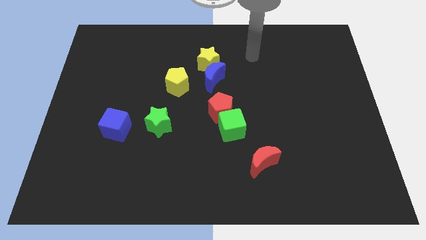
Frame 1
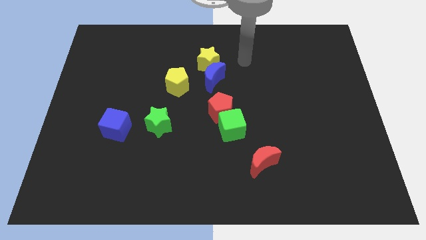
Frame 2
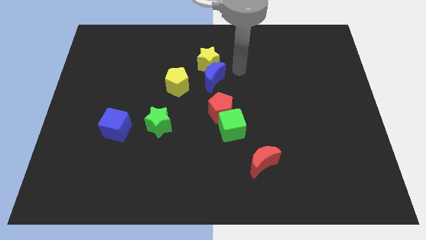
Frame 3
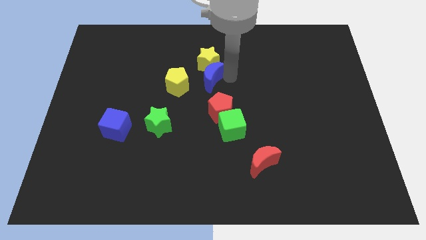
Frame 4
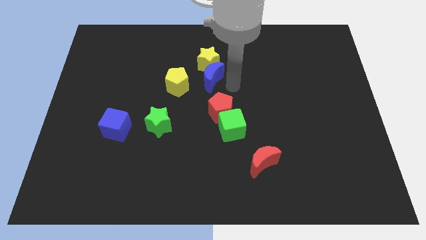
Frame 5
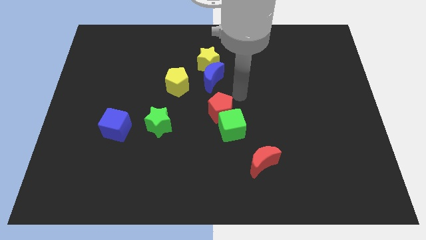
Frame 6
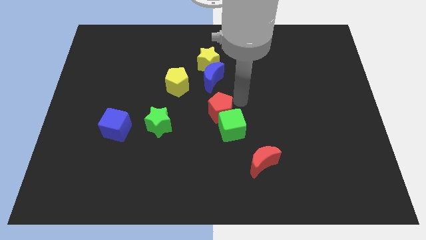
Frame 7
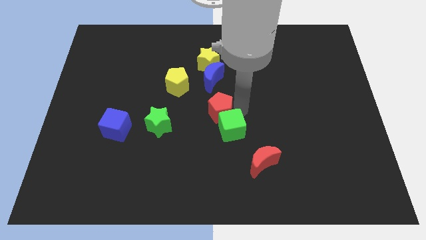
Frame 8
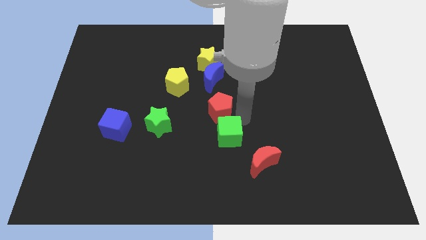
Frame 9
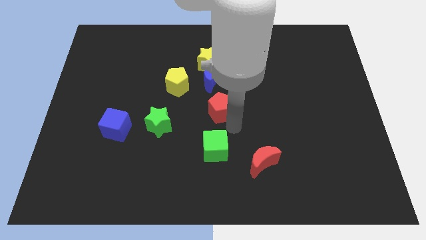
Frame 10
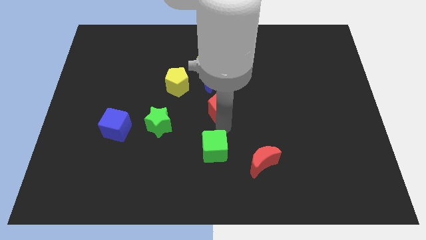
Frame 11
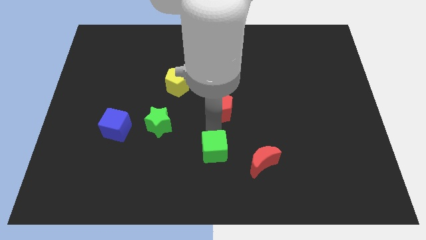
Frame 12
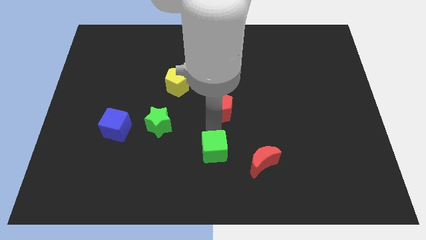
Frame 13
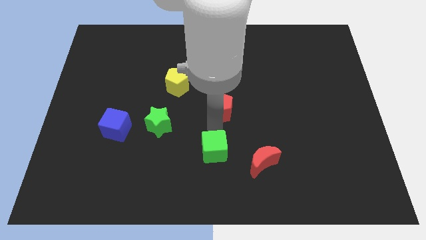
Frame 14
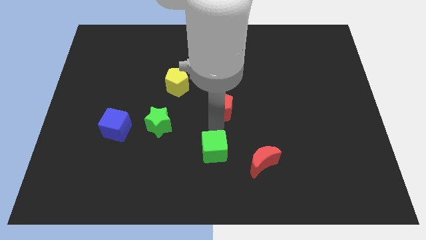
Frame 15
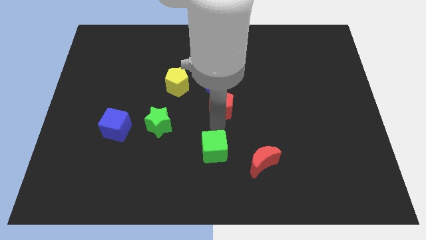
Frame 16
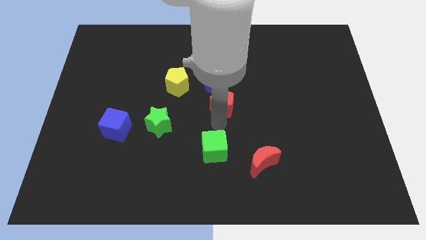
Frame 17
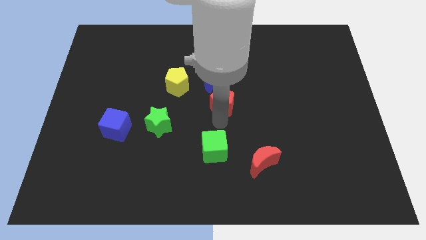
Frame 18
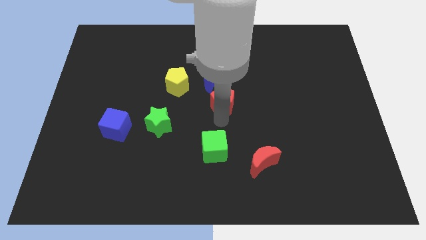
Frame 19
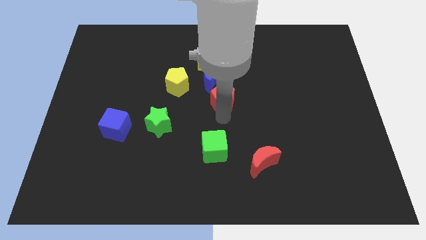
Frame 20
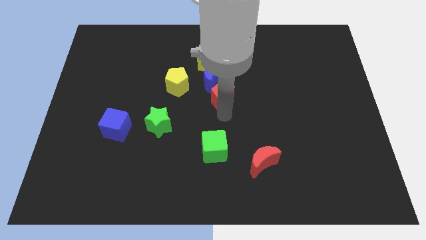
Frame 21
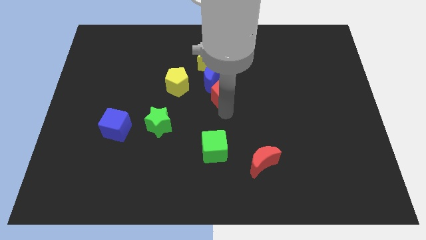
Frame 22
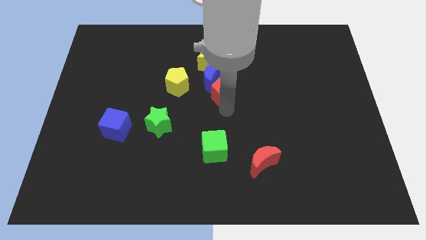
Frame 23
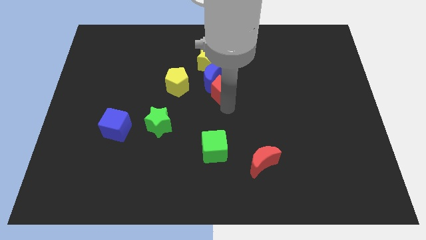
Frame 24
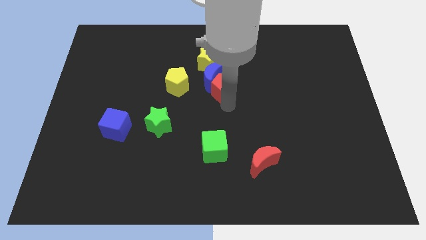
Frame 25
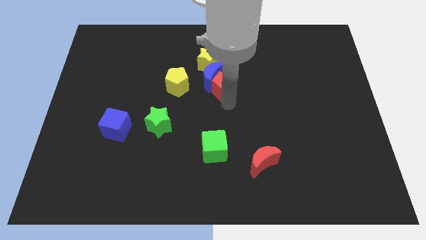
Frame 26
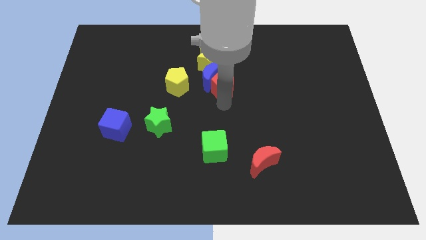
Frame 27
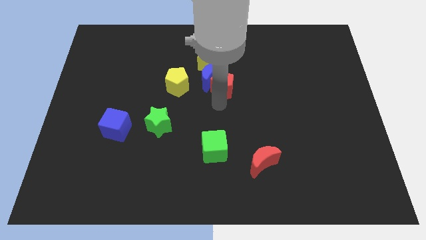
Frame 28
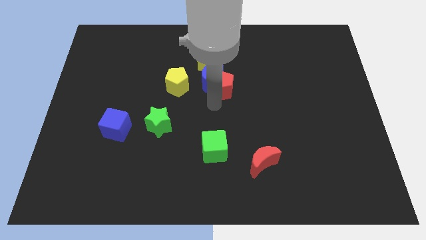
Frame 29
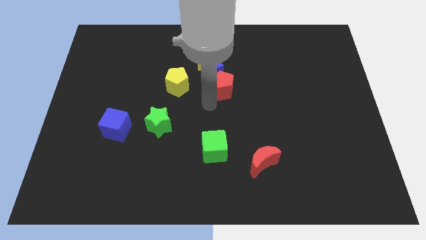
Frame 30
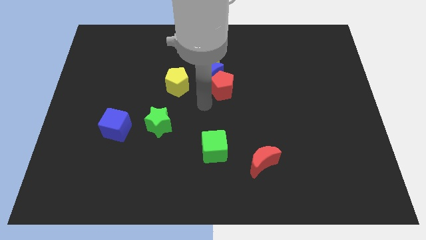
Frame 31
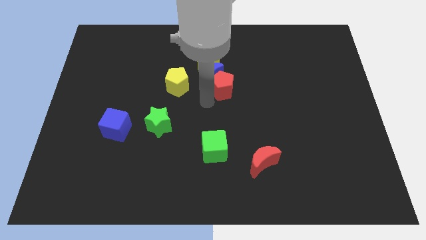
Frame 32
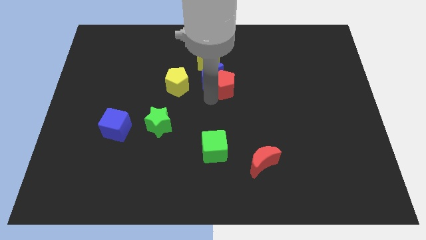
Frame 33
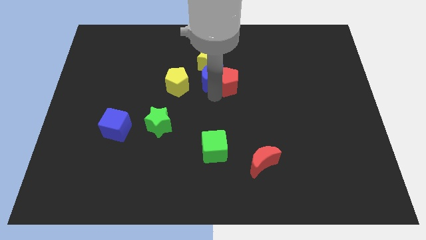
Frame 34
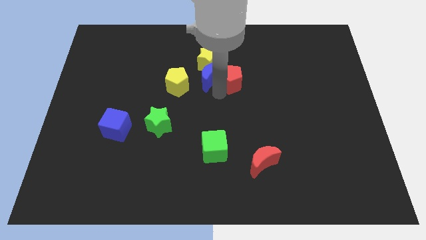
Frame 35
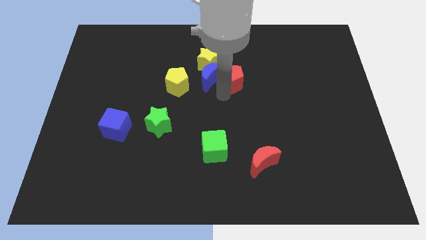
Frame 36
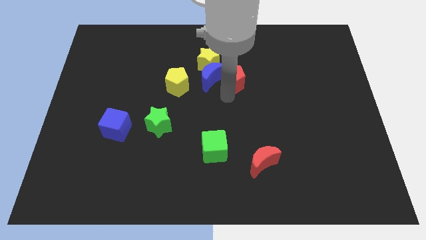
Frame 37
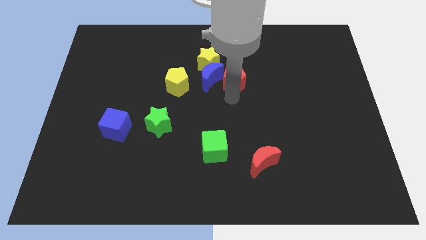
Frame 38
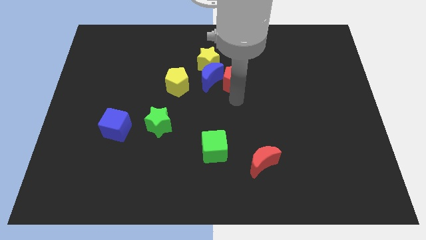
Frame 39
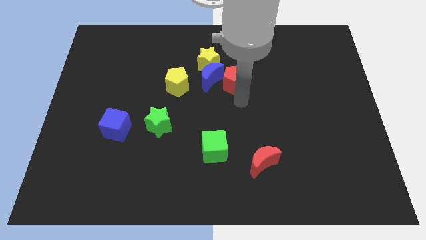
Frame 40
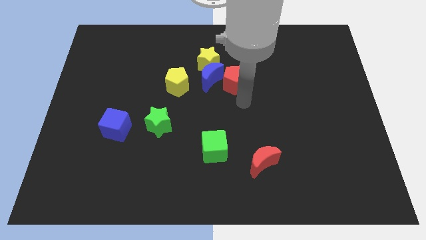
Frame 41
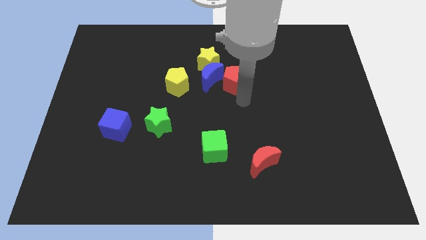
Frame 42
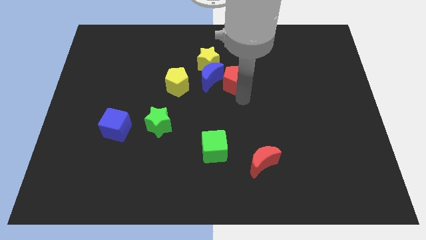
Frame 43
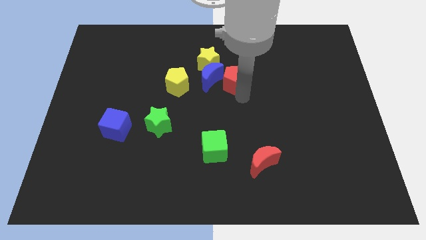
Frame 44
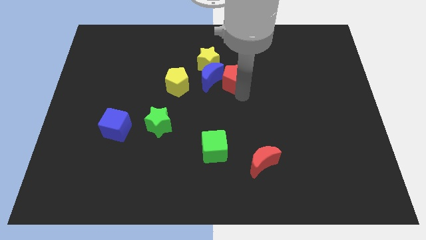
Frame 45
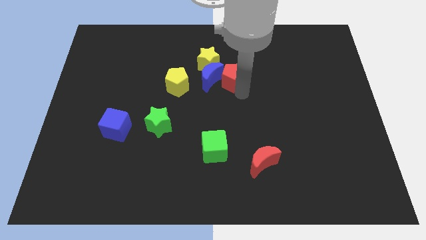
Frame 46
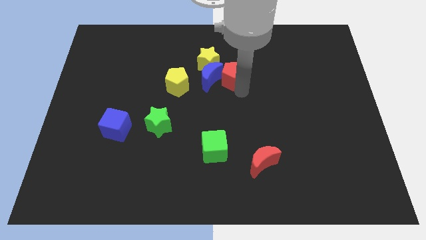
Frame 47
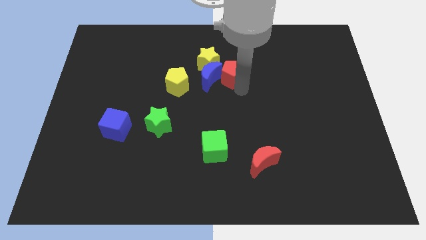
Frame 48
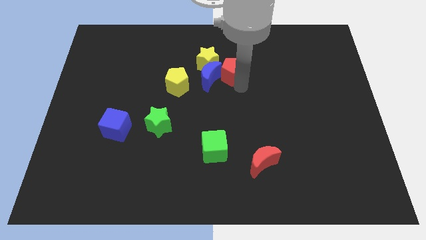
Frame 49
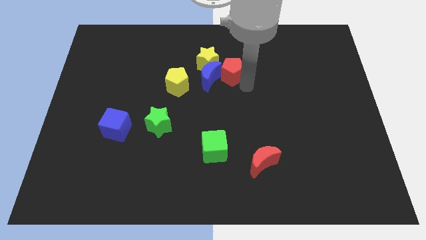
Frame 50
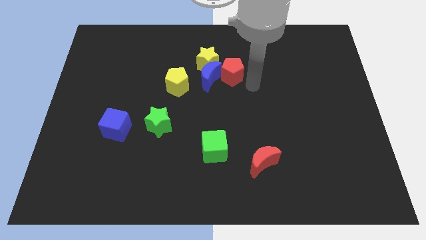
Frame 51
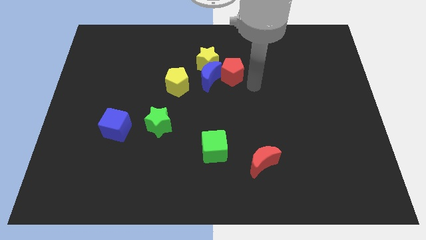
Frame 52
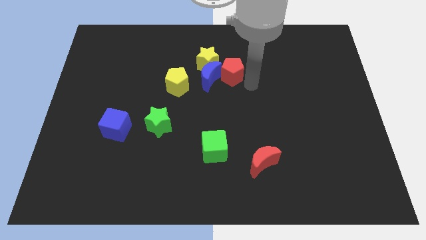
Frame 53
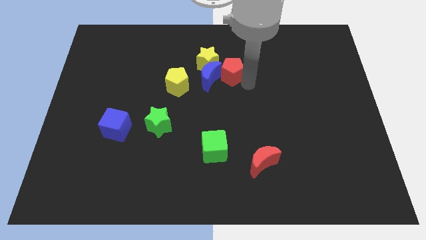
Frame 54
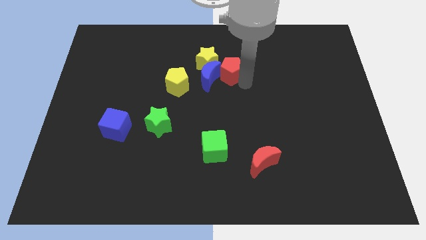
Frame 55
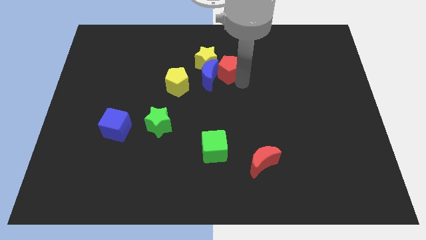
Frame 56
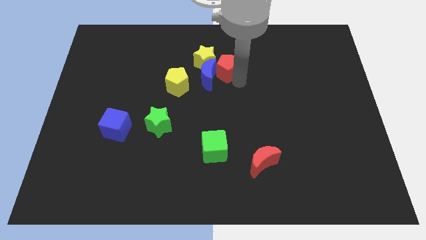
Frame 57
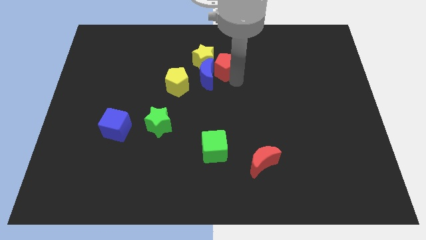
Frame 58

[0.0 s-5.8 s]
put the red pentagon next to the yellow star

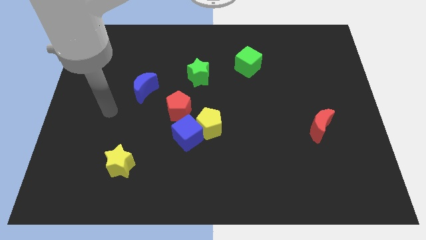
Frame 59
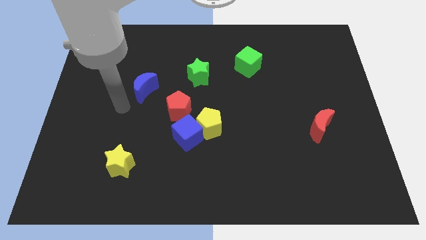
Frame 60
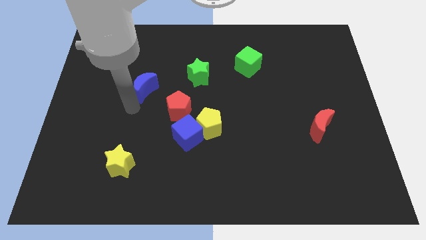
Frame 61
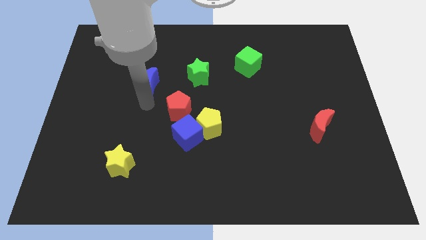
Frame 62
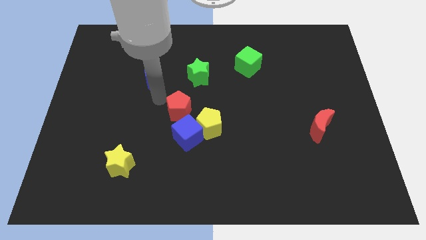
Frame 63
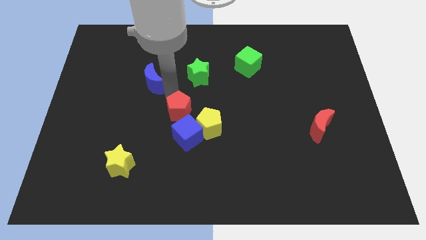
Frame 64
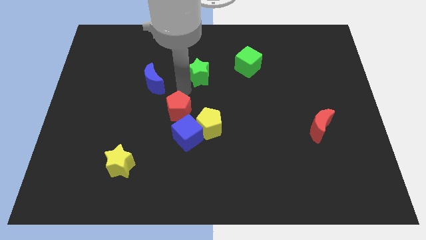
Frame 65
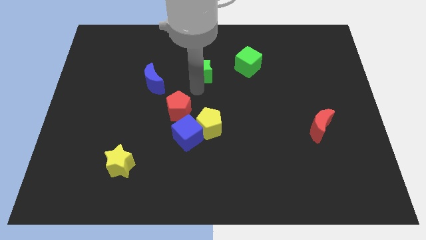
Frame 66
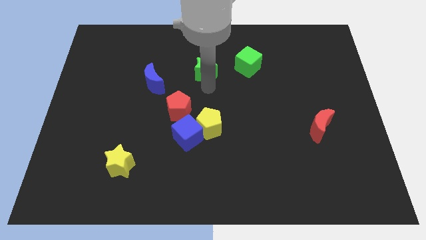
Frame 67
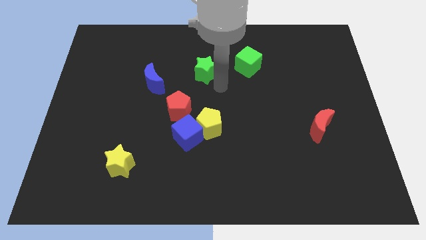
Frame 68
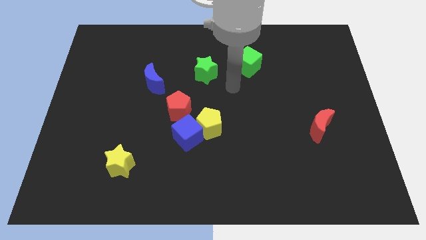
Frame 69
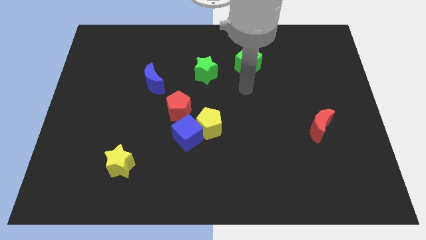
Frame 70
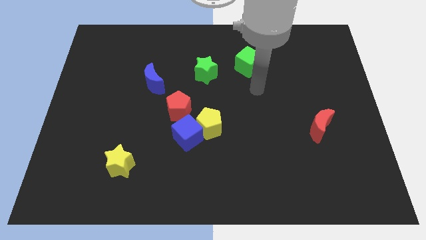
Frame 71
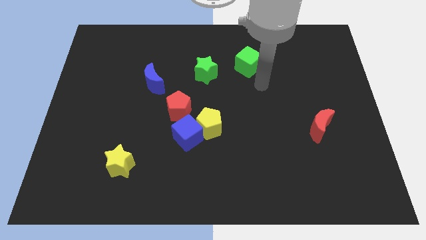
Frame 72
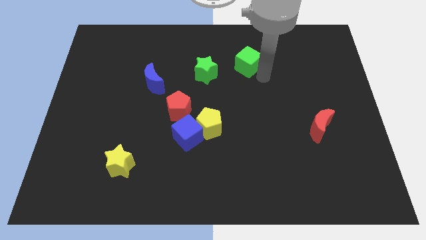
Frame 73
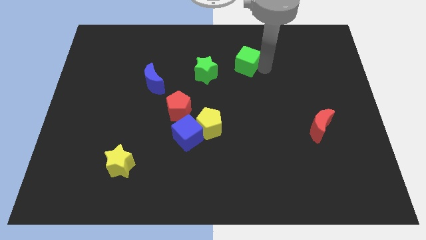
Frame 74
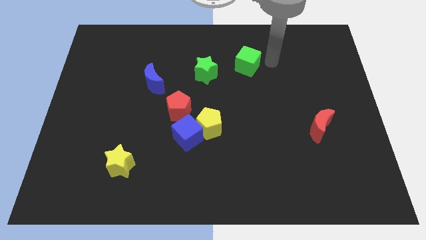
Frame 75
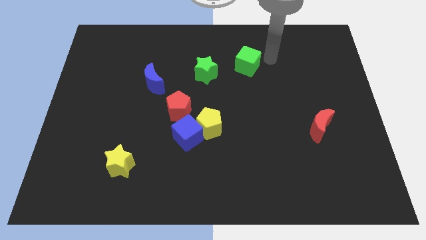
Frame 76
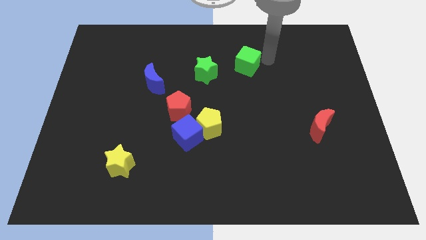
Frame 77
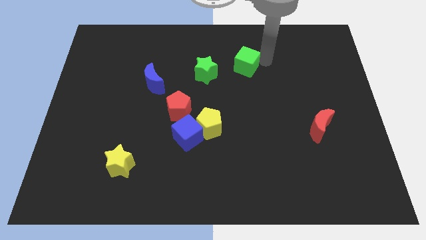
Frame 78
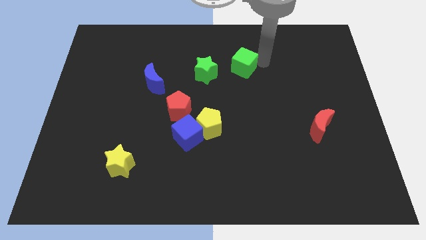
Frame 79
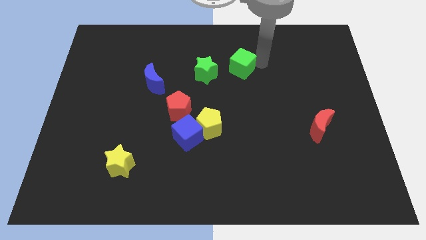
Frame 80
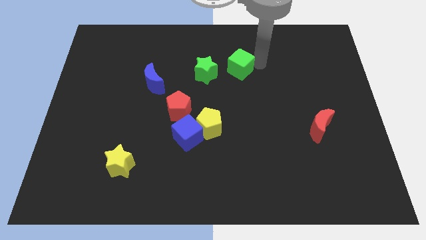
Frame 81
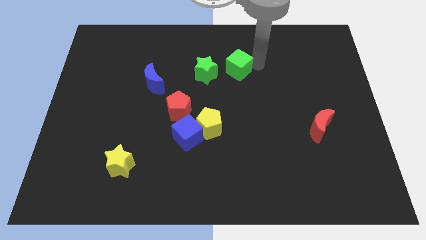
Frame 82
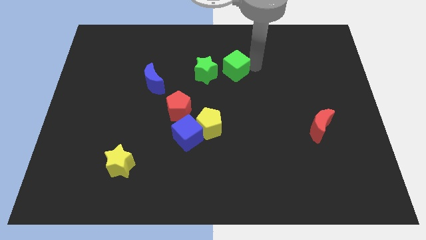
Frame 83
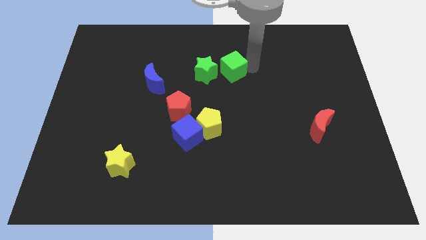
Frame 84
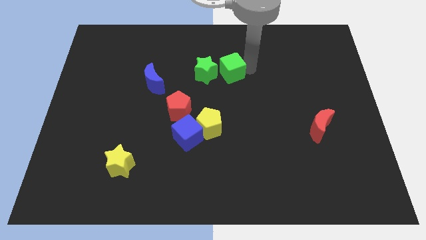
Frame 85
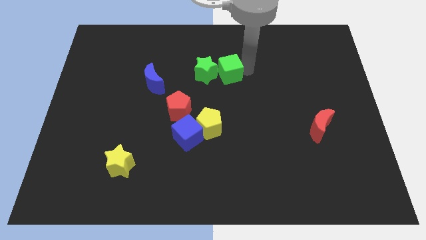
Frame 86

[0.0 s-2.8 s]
put the green cube close to the green star
